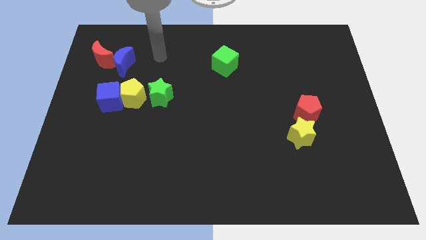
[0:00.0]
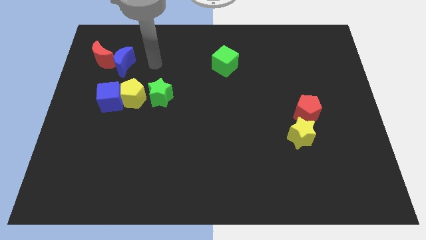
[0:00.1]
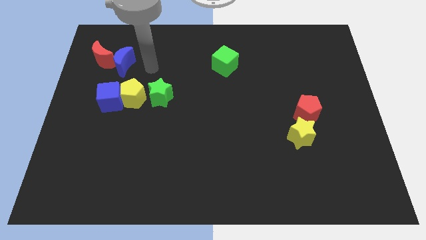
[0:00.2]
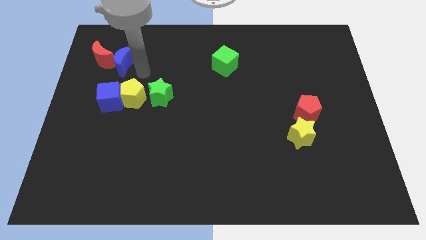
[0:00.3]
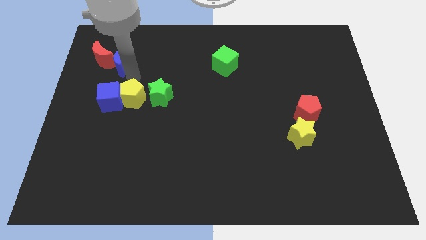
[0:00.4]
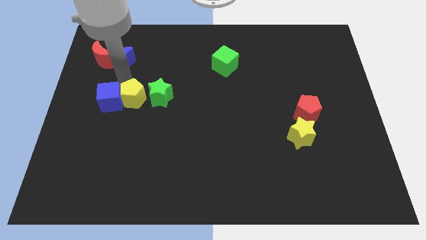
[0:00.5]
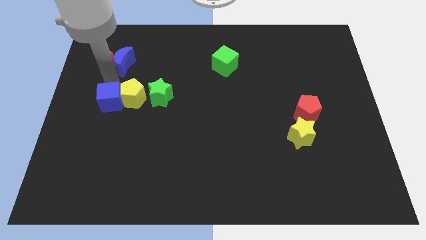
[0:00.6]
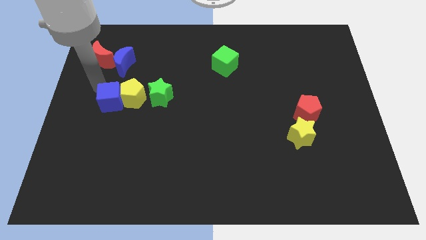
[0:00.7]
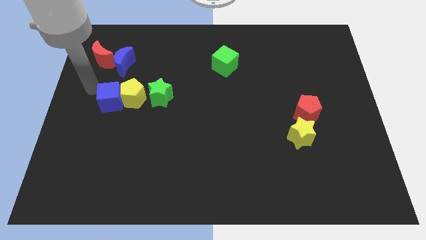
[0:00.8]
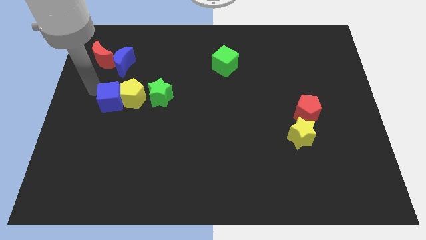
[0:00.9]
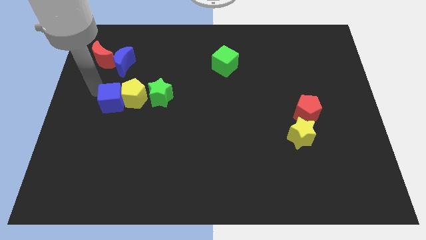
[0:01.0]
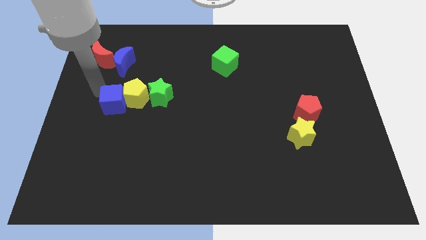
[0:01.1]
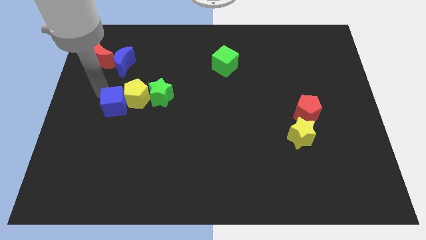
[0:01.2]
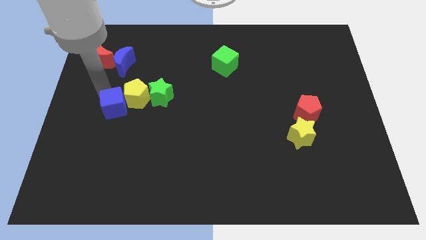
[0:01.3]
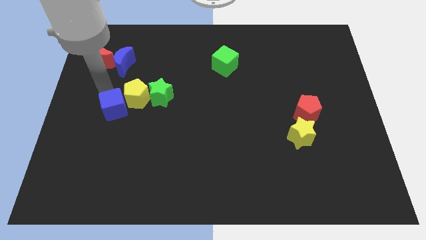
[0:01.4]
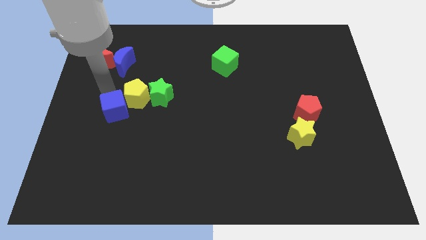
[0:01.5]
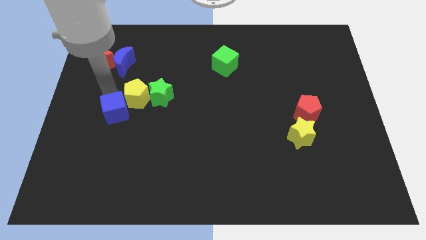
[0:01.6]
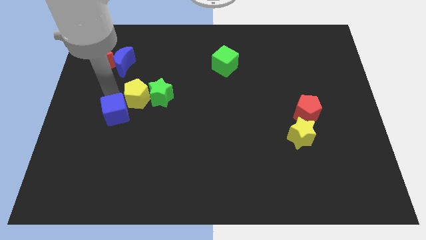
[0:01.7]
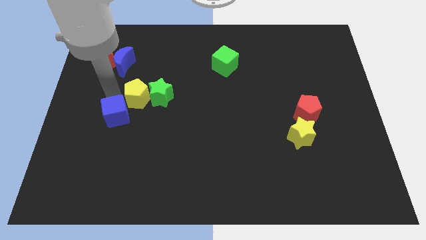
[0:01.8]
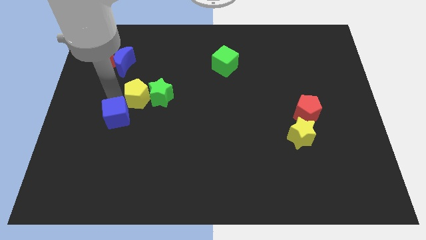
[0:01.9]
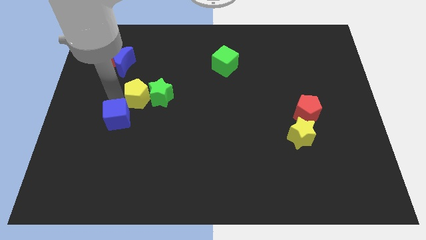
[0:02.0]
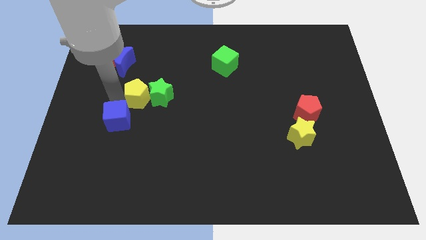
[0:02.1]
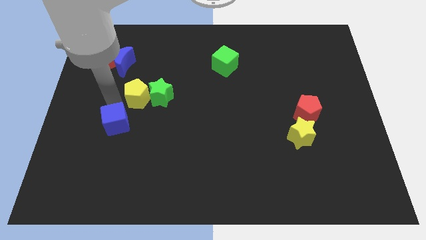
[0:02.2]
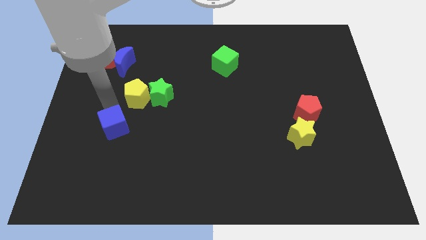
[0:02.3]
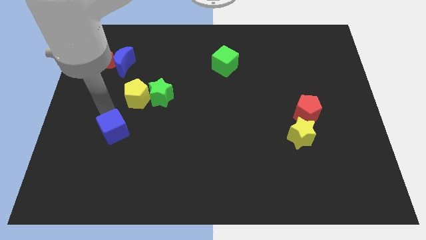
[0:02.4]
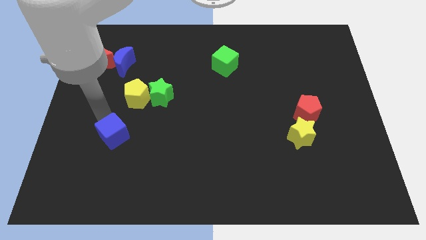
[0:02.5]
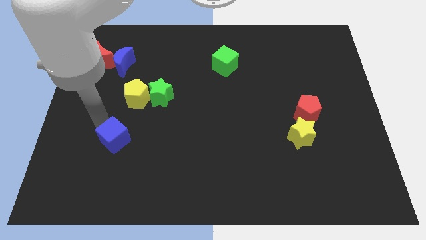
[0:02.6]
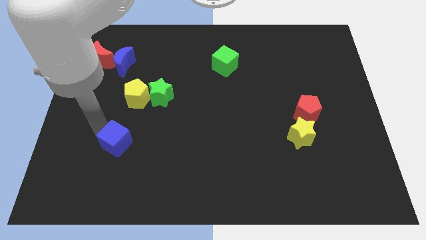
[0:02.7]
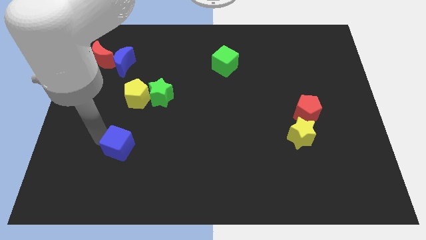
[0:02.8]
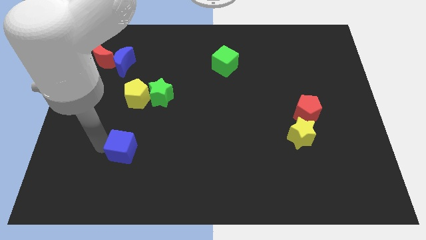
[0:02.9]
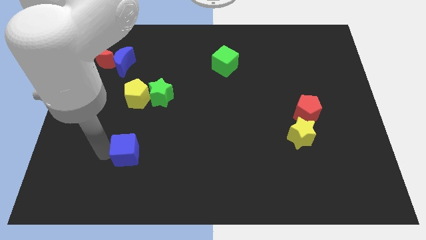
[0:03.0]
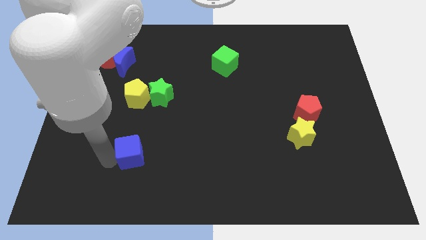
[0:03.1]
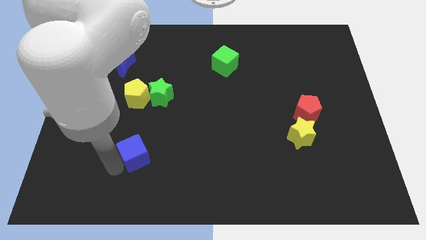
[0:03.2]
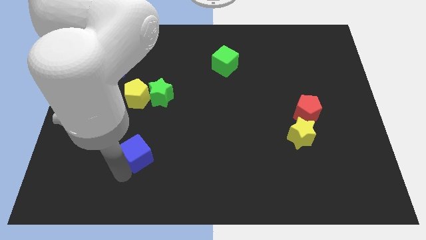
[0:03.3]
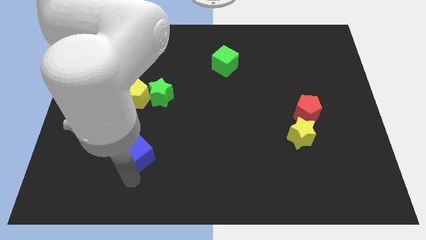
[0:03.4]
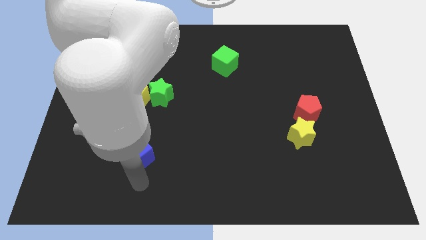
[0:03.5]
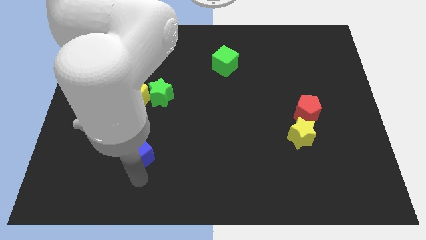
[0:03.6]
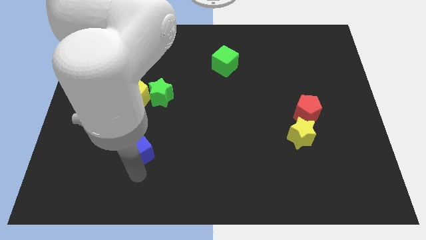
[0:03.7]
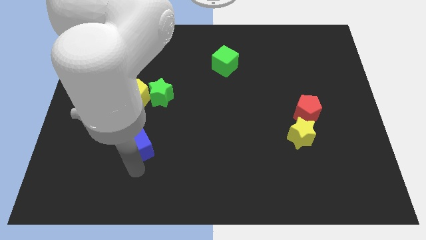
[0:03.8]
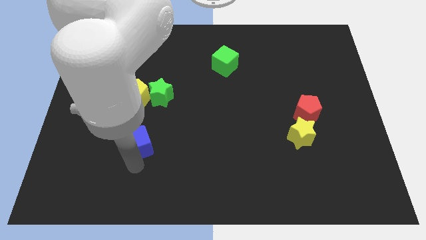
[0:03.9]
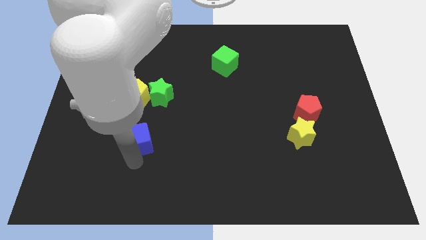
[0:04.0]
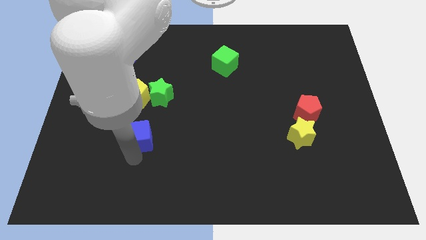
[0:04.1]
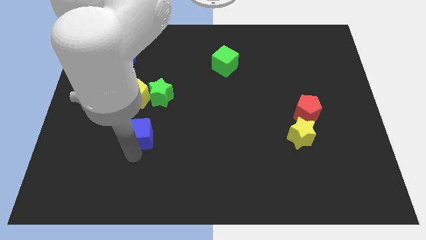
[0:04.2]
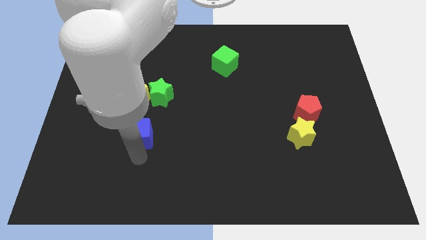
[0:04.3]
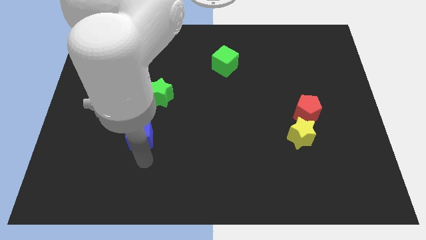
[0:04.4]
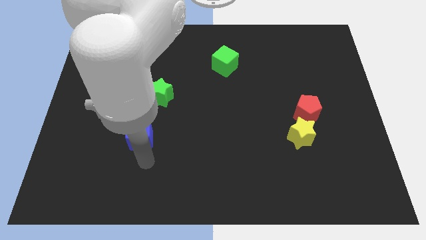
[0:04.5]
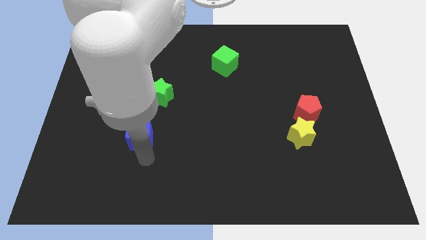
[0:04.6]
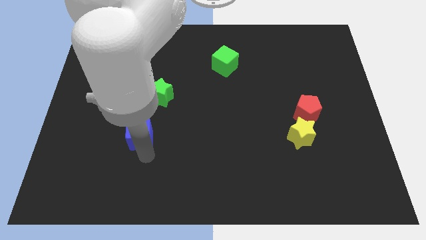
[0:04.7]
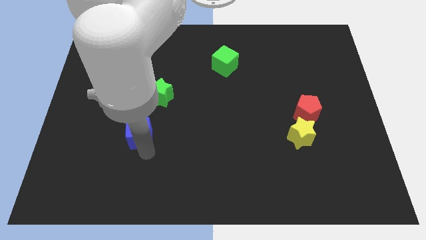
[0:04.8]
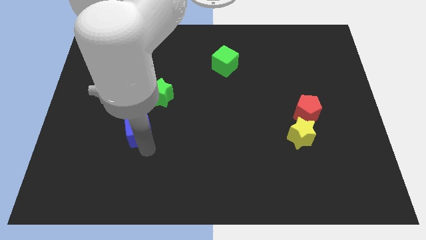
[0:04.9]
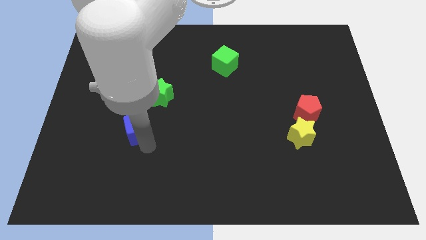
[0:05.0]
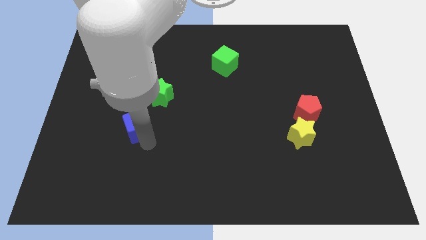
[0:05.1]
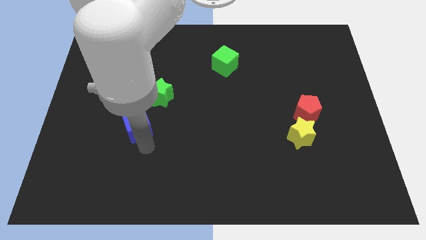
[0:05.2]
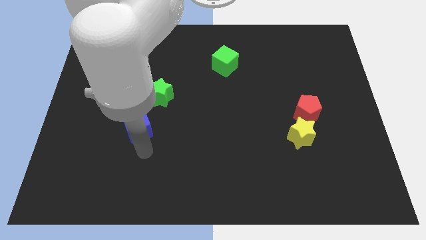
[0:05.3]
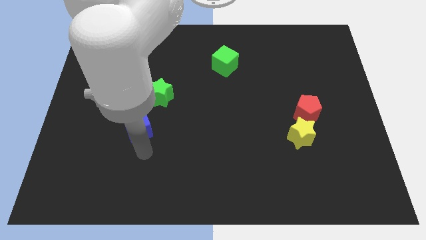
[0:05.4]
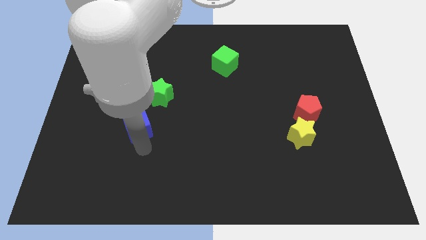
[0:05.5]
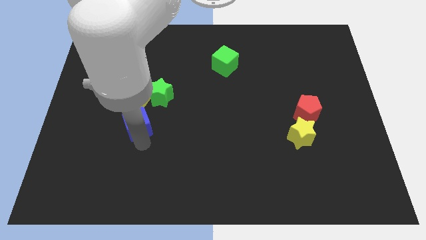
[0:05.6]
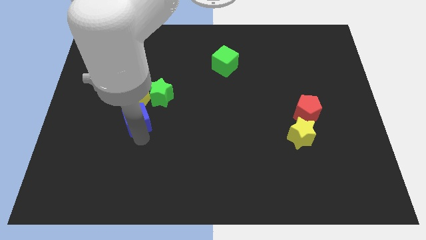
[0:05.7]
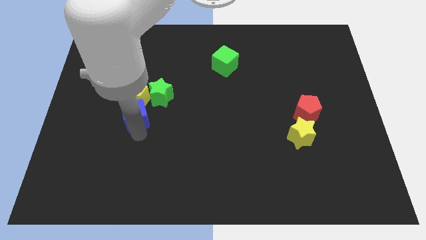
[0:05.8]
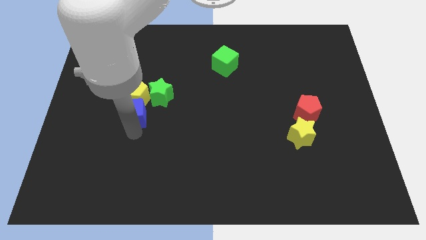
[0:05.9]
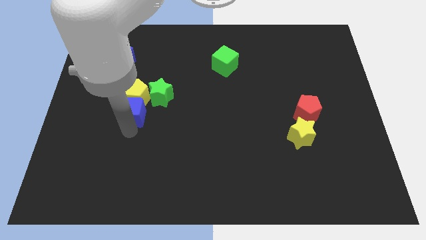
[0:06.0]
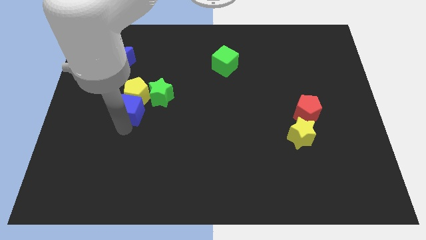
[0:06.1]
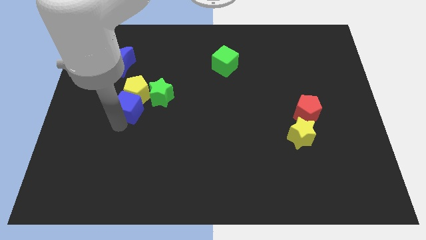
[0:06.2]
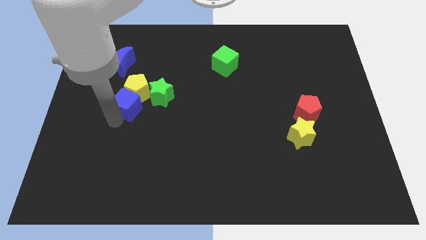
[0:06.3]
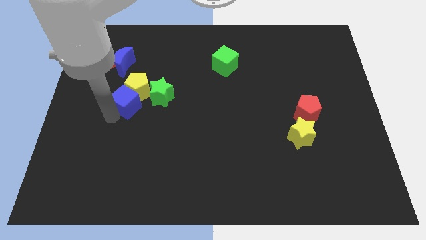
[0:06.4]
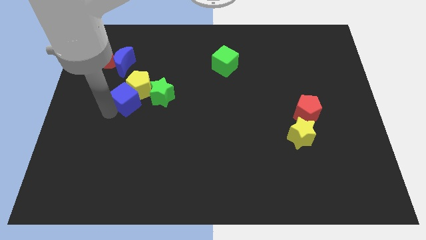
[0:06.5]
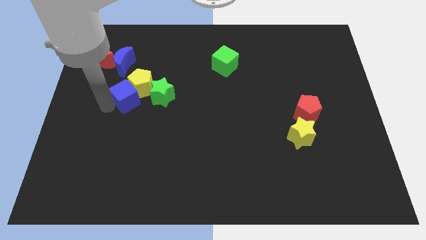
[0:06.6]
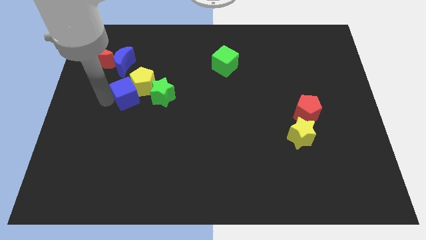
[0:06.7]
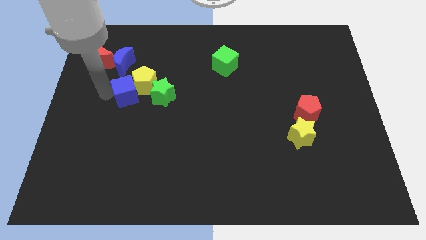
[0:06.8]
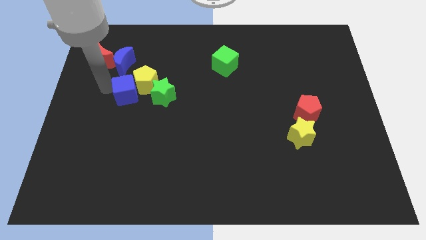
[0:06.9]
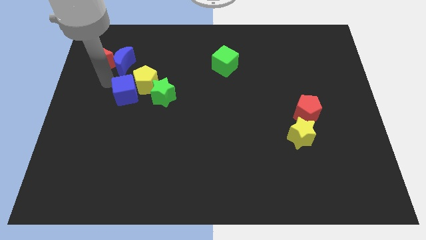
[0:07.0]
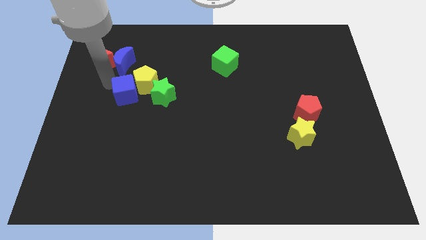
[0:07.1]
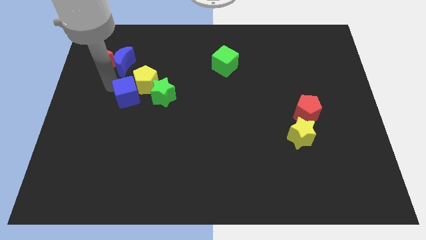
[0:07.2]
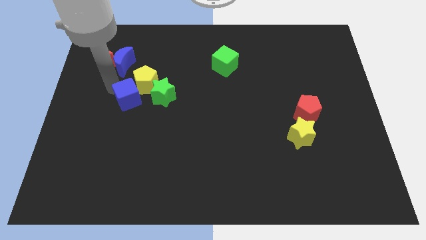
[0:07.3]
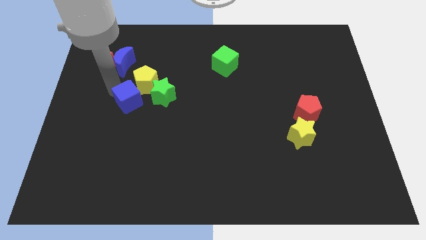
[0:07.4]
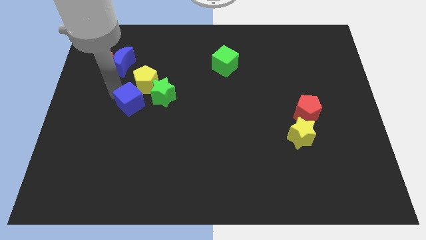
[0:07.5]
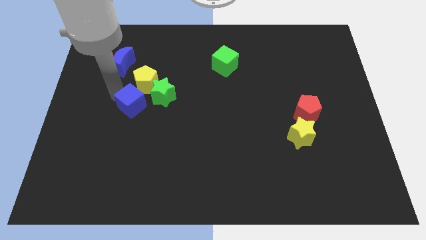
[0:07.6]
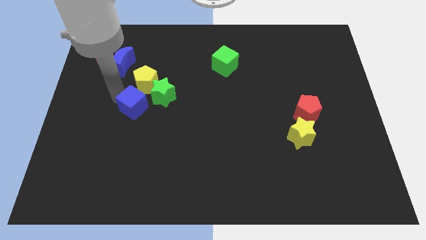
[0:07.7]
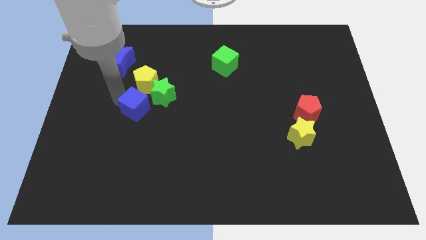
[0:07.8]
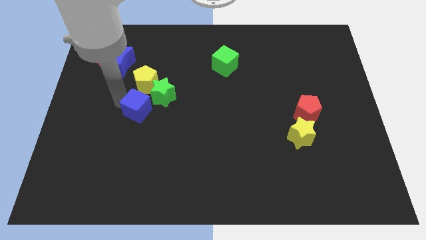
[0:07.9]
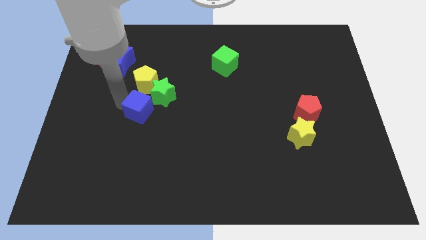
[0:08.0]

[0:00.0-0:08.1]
slide the blue cube a bit right
